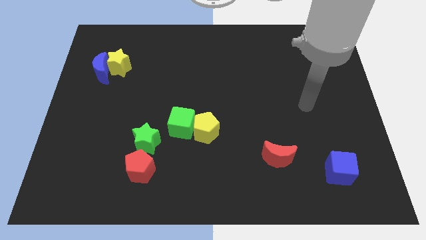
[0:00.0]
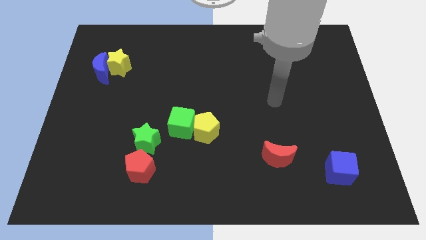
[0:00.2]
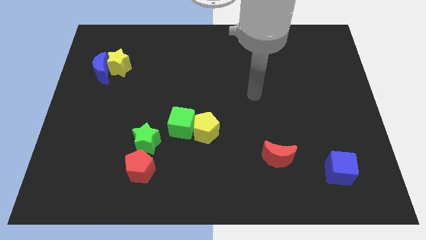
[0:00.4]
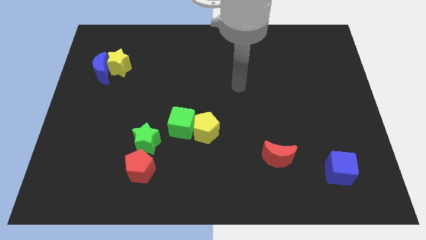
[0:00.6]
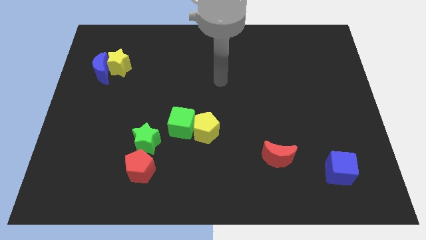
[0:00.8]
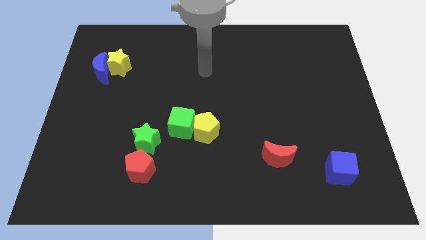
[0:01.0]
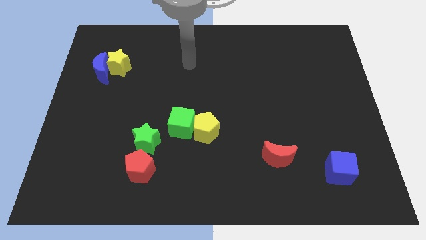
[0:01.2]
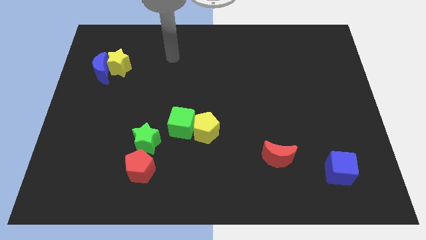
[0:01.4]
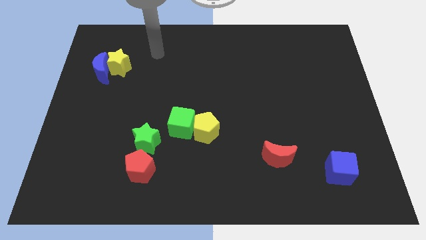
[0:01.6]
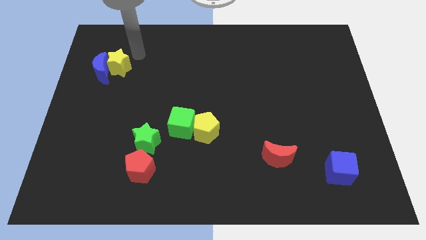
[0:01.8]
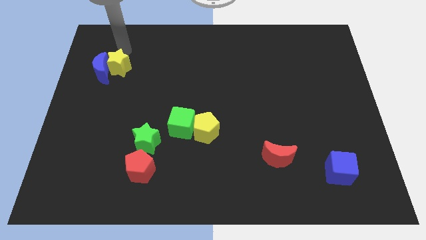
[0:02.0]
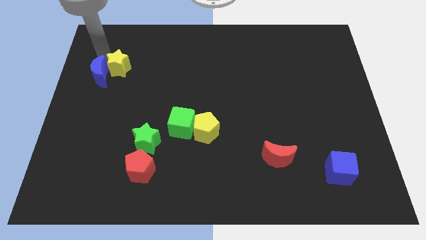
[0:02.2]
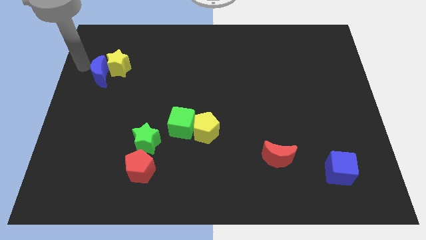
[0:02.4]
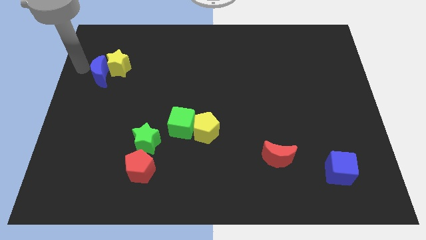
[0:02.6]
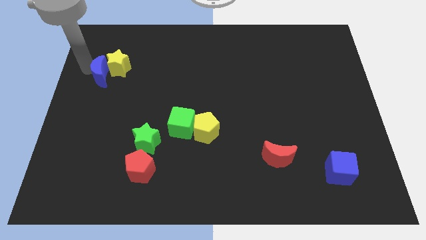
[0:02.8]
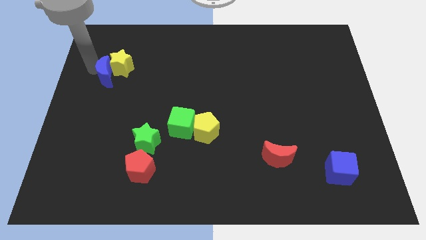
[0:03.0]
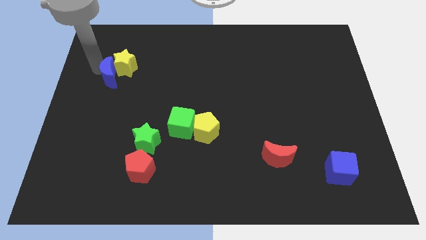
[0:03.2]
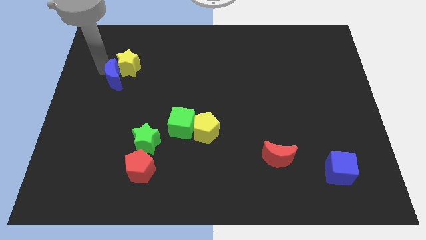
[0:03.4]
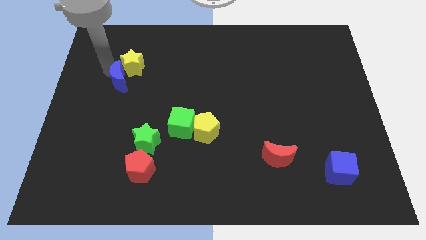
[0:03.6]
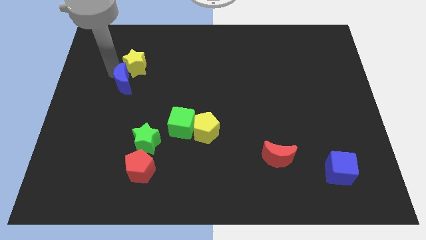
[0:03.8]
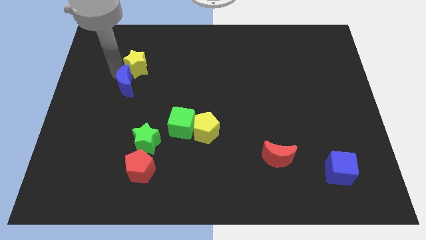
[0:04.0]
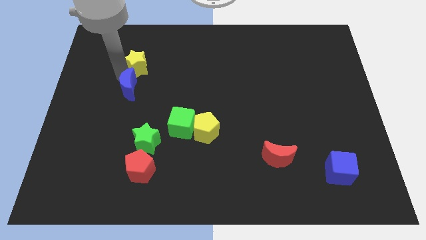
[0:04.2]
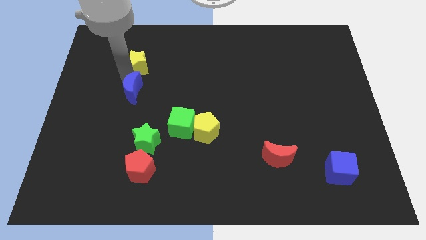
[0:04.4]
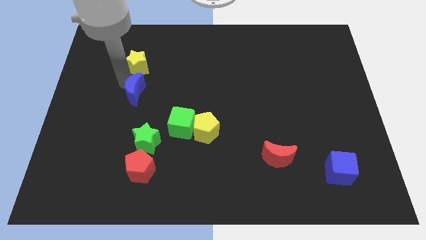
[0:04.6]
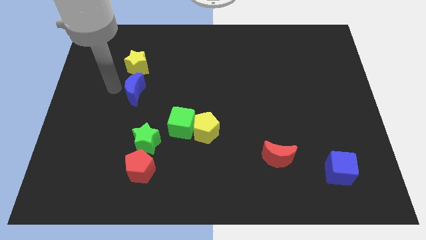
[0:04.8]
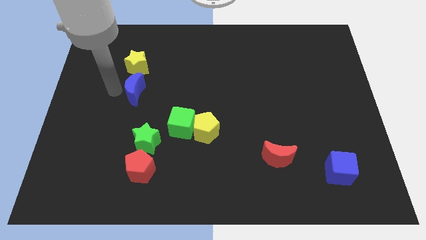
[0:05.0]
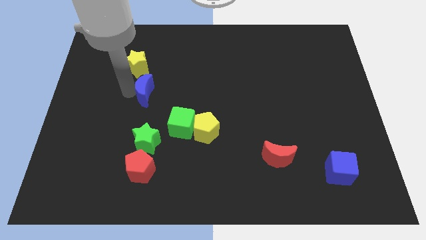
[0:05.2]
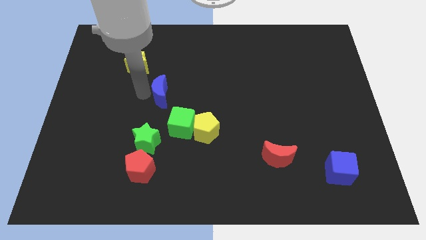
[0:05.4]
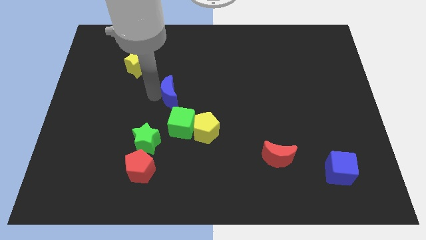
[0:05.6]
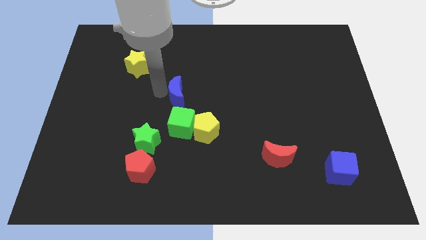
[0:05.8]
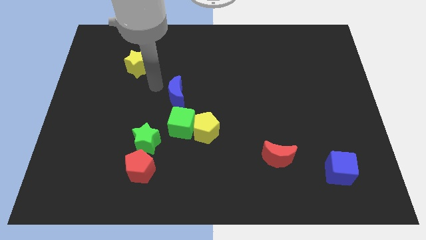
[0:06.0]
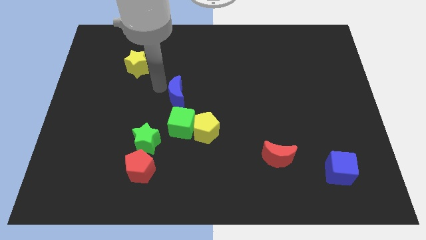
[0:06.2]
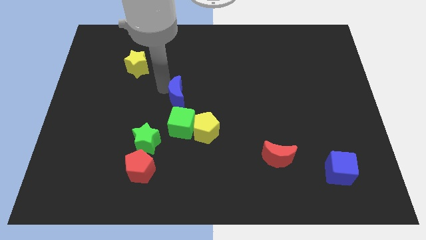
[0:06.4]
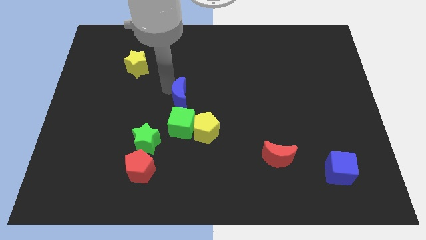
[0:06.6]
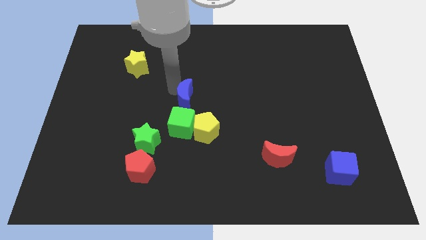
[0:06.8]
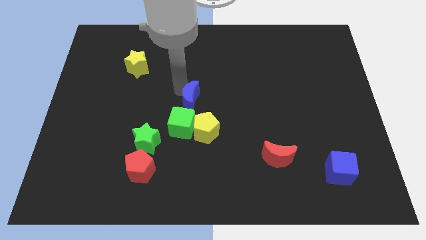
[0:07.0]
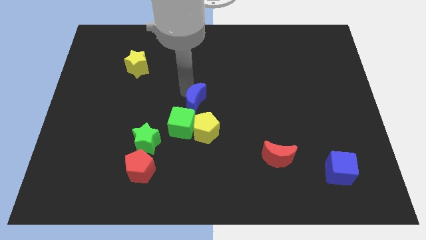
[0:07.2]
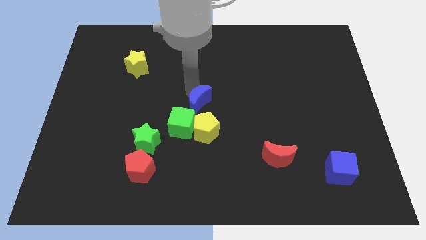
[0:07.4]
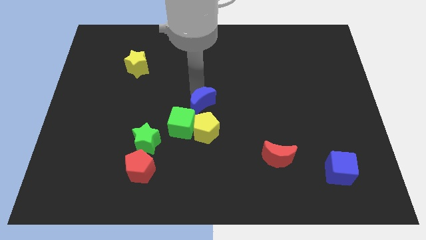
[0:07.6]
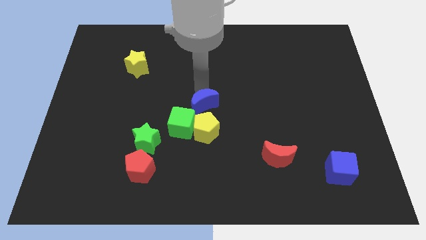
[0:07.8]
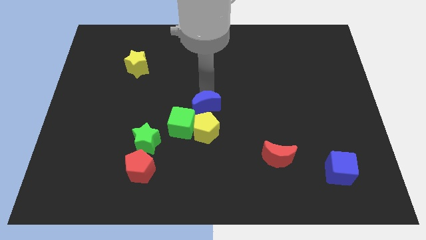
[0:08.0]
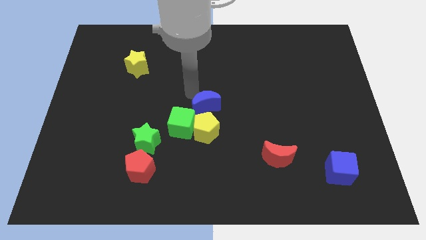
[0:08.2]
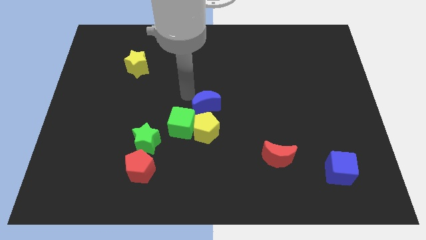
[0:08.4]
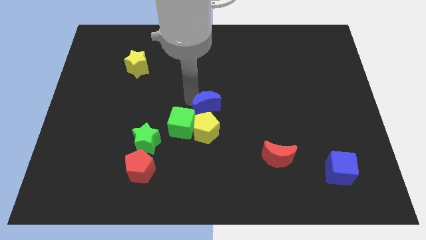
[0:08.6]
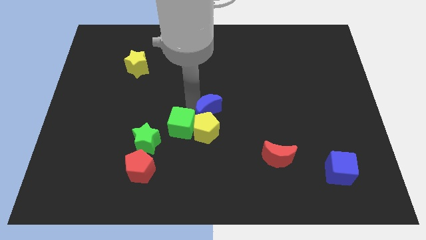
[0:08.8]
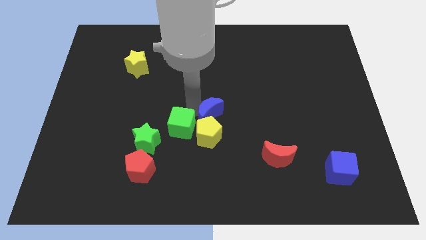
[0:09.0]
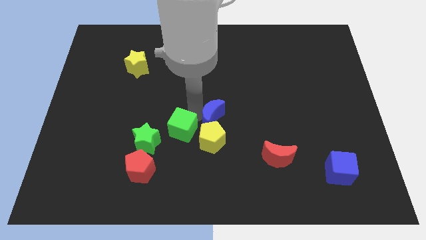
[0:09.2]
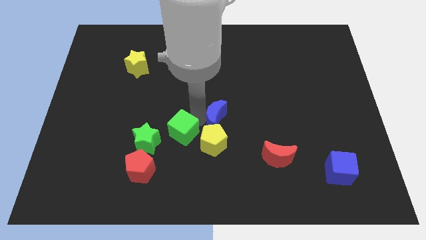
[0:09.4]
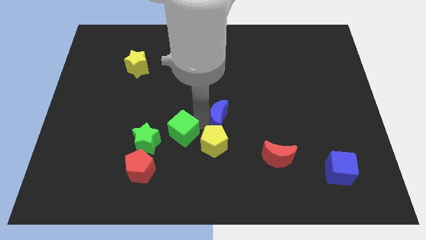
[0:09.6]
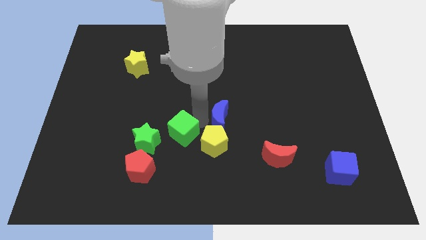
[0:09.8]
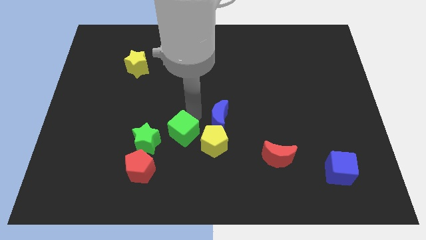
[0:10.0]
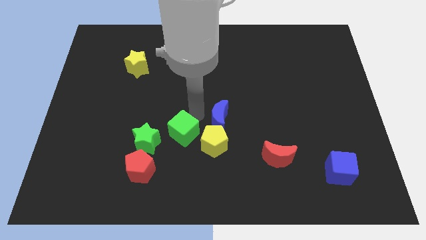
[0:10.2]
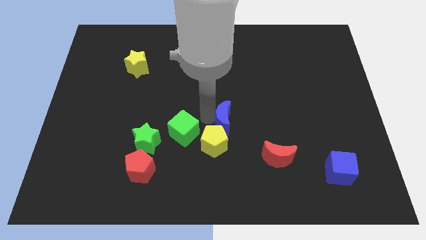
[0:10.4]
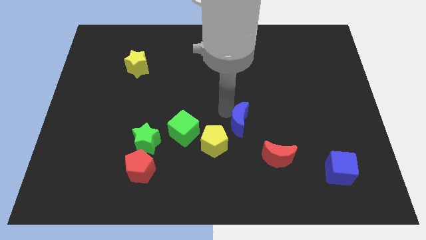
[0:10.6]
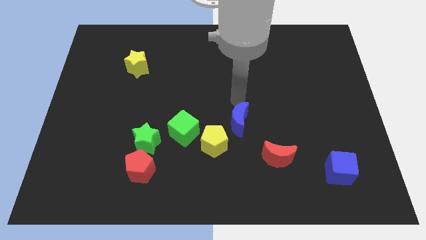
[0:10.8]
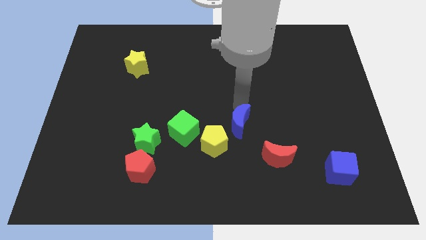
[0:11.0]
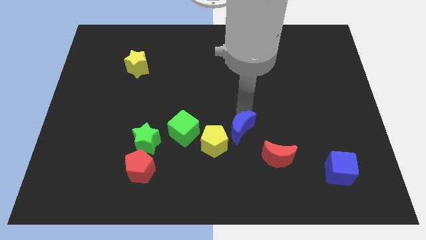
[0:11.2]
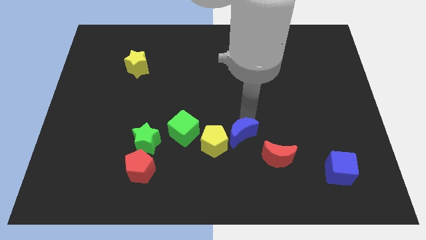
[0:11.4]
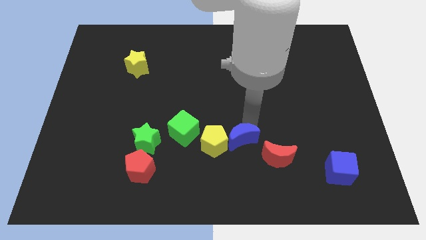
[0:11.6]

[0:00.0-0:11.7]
put the blue moon diagonally down and to the right of the yellow pentagon
